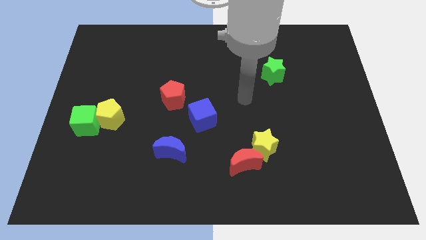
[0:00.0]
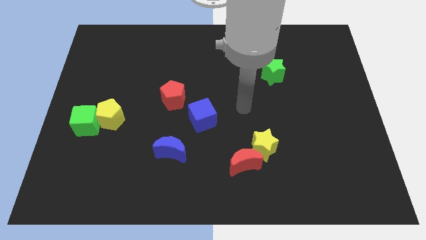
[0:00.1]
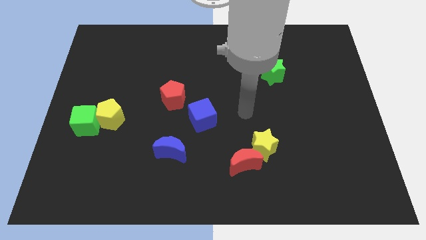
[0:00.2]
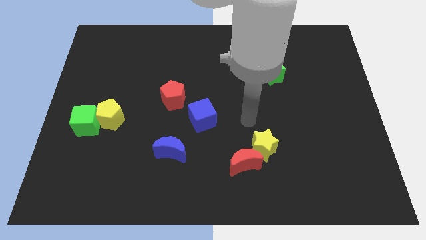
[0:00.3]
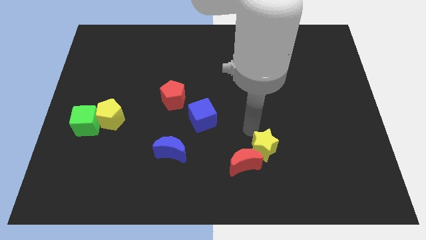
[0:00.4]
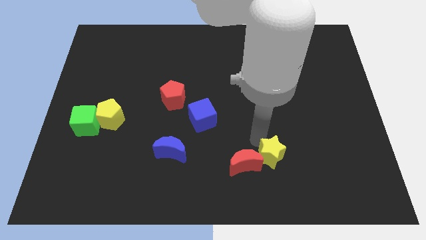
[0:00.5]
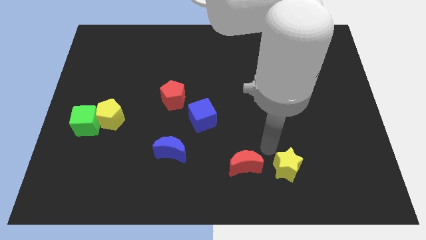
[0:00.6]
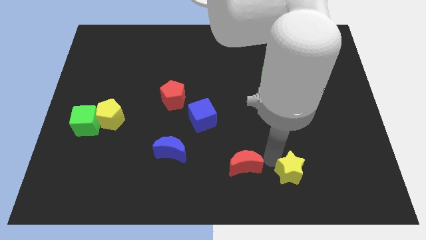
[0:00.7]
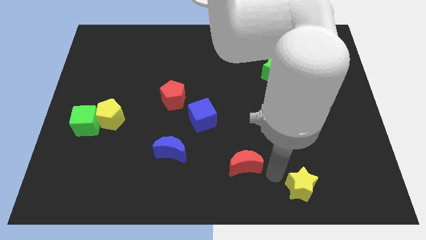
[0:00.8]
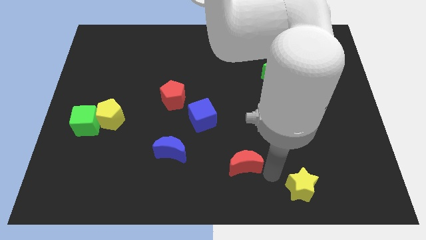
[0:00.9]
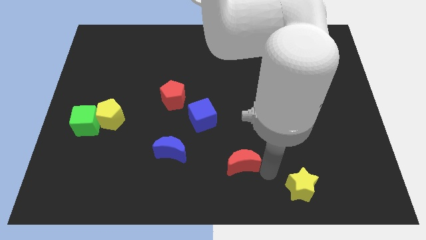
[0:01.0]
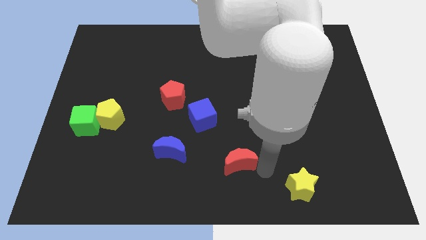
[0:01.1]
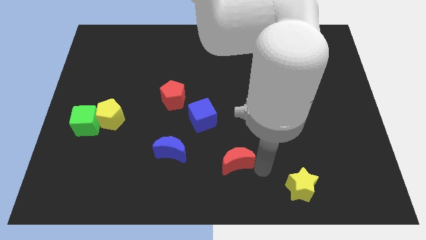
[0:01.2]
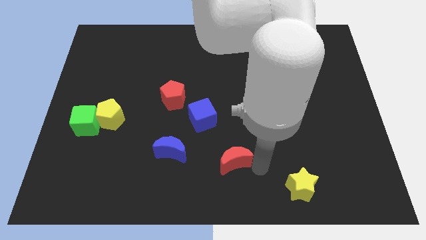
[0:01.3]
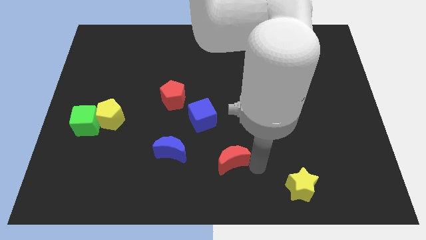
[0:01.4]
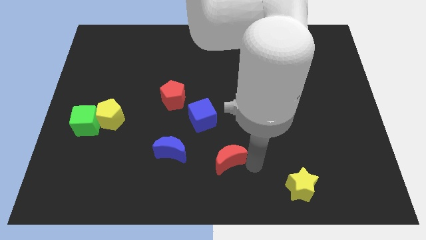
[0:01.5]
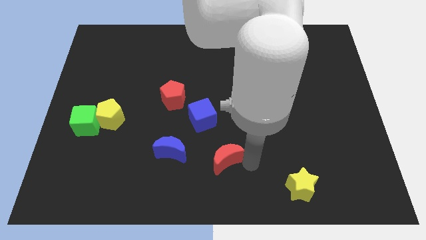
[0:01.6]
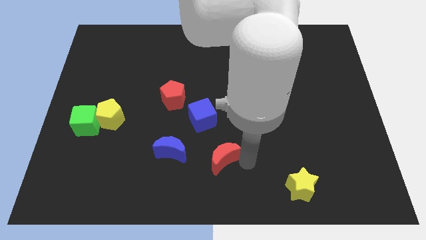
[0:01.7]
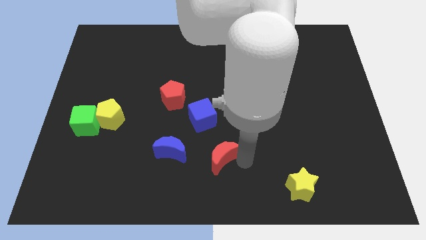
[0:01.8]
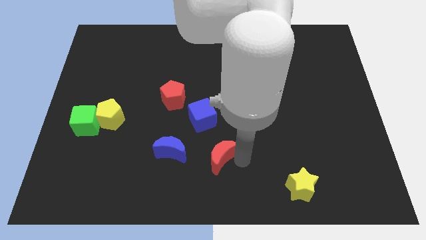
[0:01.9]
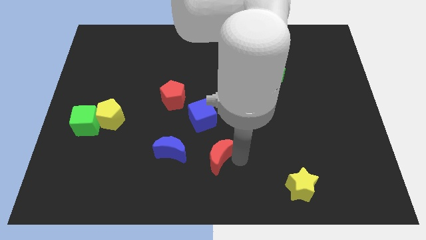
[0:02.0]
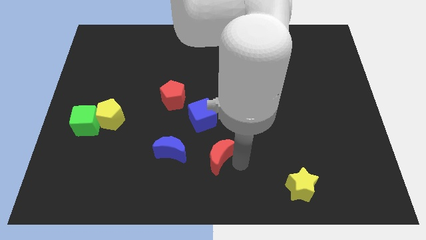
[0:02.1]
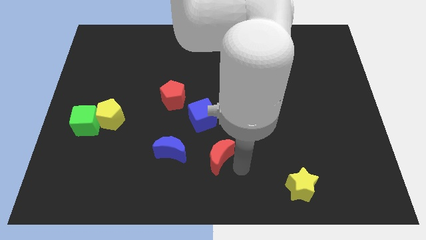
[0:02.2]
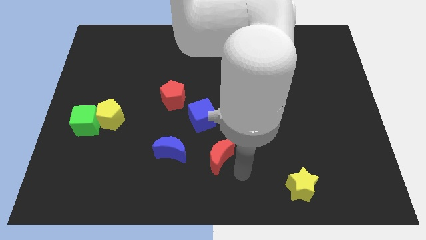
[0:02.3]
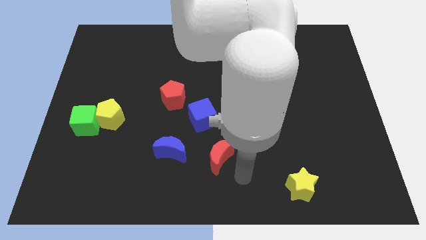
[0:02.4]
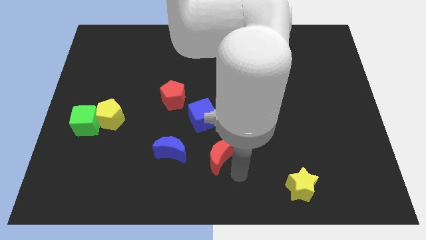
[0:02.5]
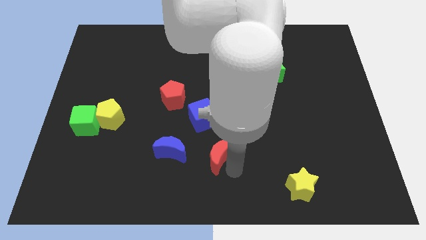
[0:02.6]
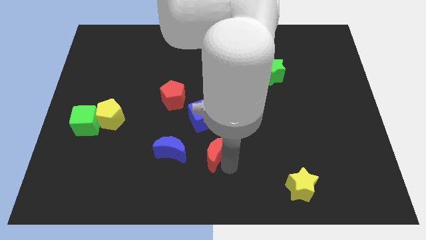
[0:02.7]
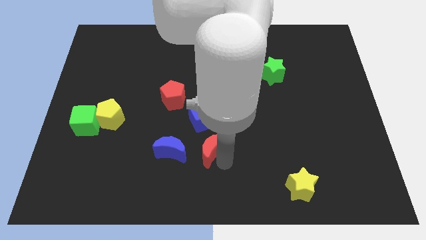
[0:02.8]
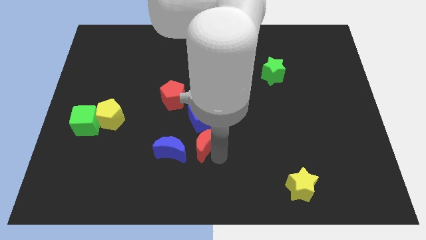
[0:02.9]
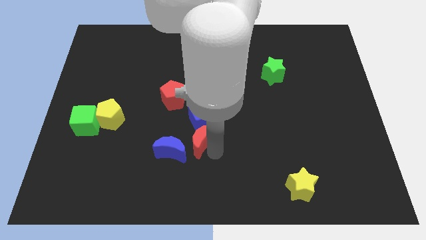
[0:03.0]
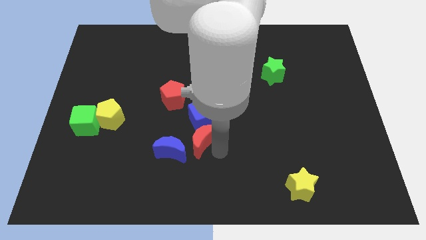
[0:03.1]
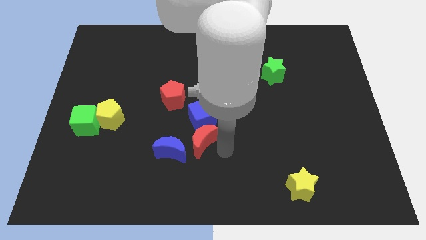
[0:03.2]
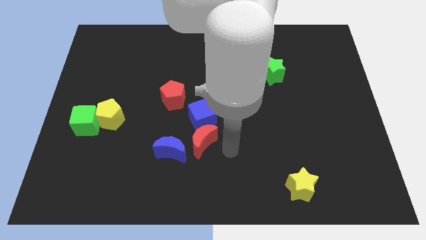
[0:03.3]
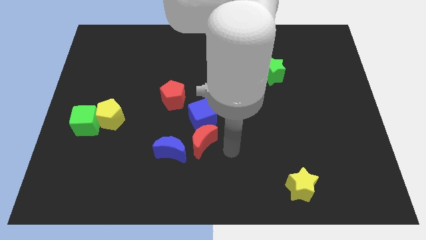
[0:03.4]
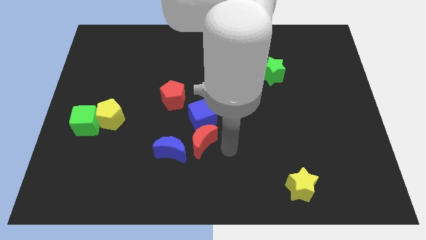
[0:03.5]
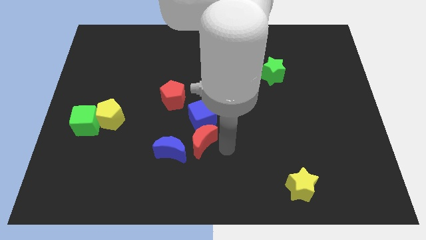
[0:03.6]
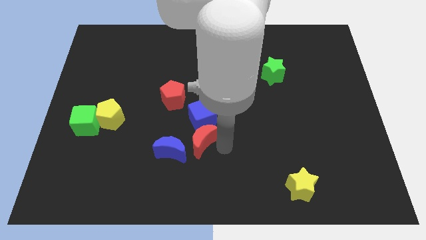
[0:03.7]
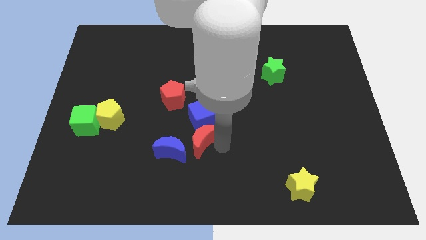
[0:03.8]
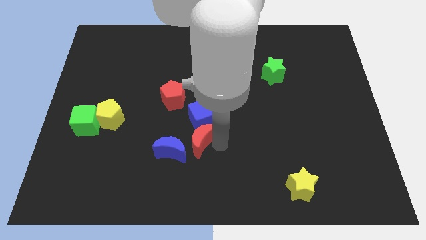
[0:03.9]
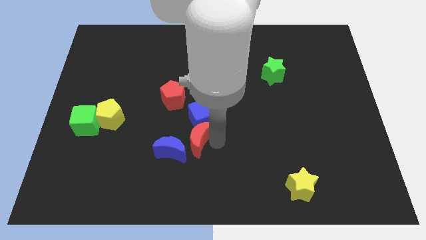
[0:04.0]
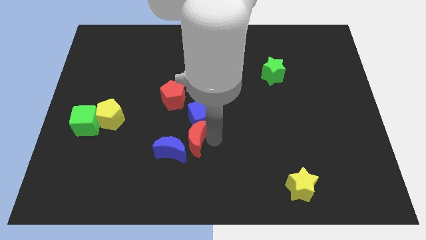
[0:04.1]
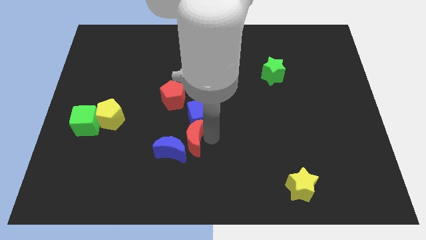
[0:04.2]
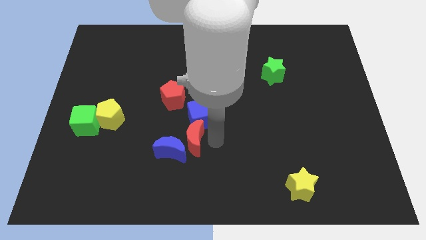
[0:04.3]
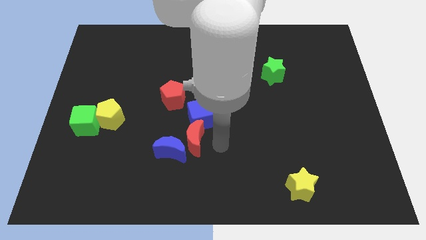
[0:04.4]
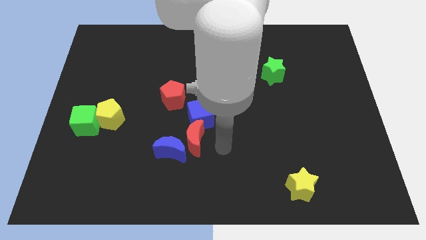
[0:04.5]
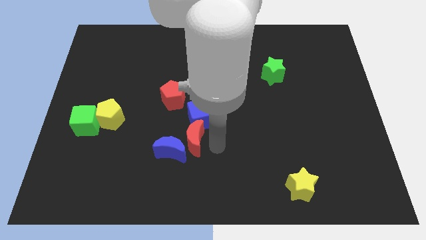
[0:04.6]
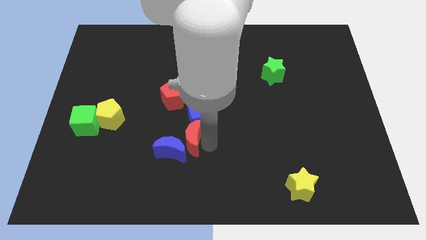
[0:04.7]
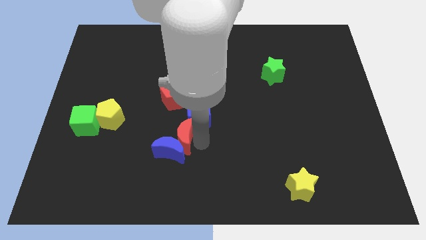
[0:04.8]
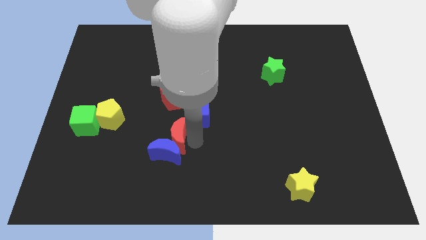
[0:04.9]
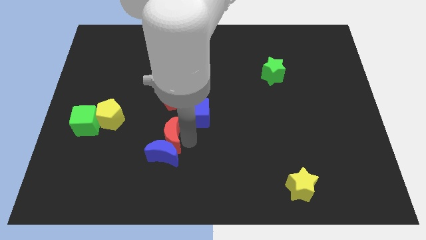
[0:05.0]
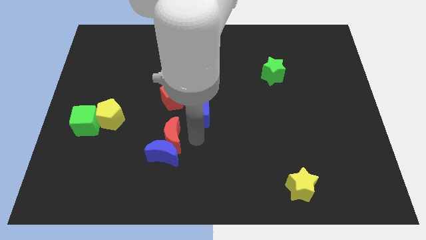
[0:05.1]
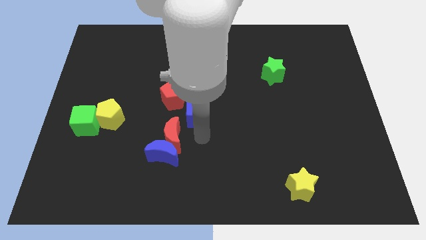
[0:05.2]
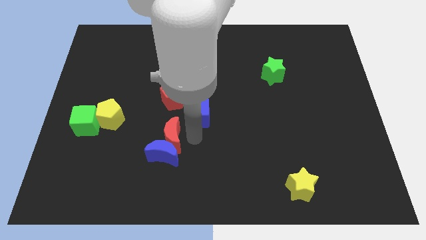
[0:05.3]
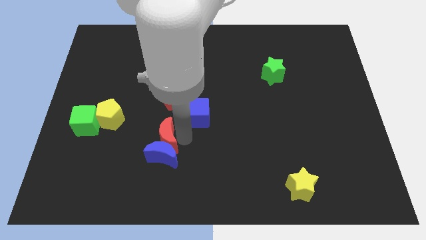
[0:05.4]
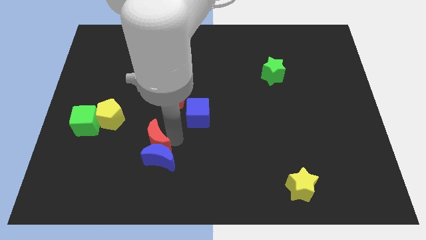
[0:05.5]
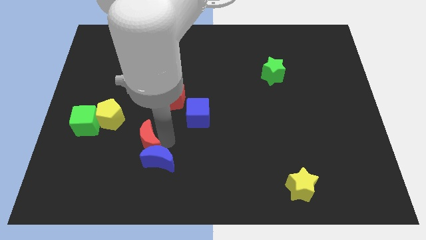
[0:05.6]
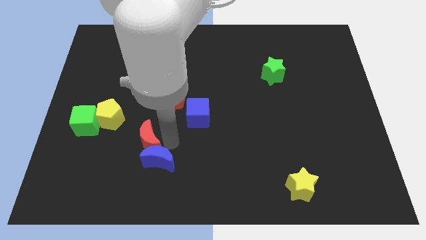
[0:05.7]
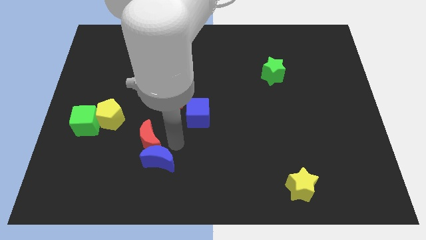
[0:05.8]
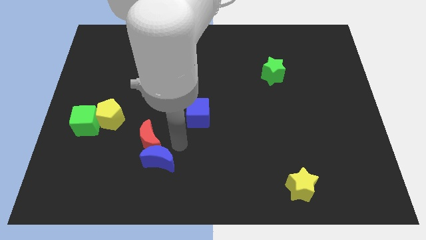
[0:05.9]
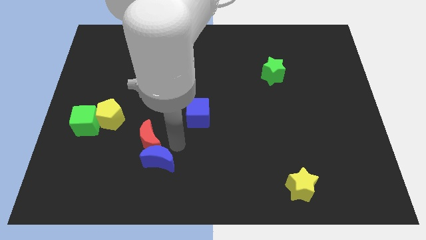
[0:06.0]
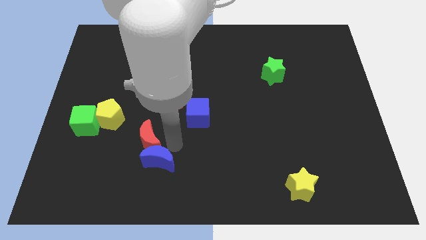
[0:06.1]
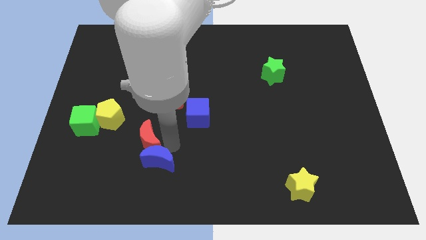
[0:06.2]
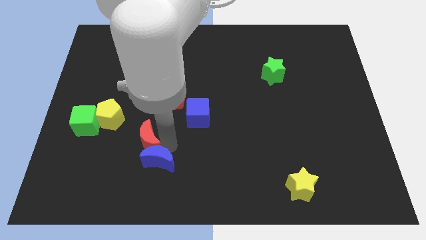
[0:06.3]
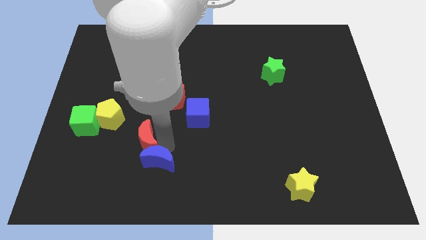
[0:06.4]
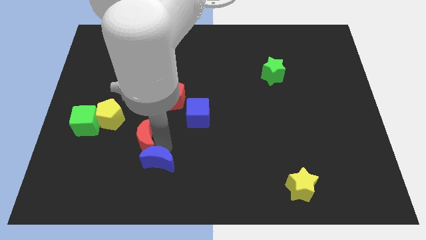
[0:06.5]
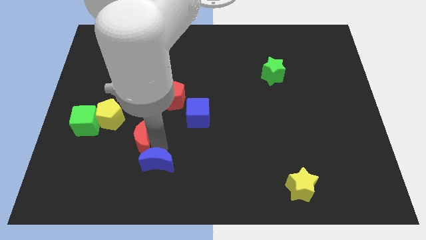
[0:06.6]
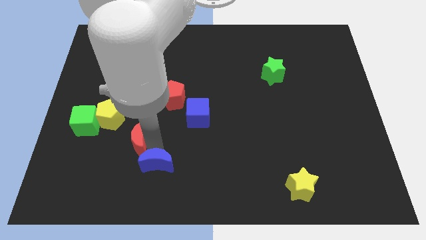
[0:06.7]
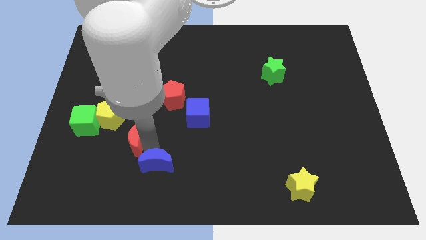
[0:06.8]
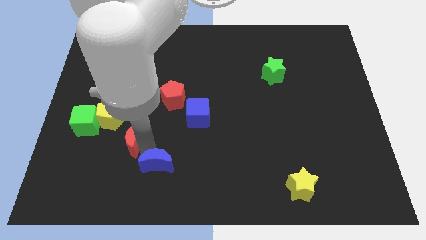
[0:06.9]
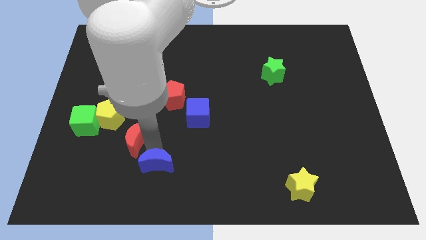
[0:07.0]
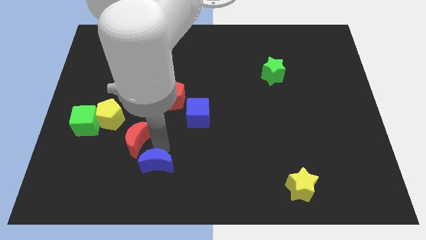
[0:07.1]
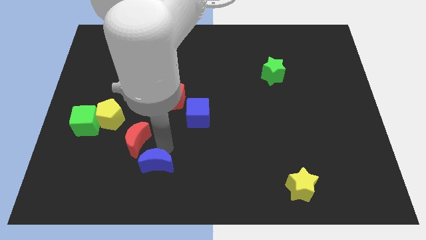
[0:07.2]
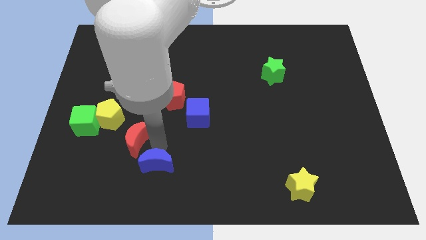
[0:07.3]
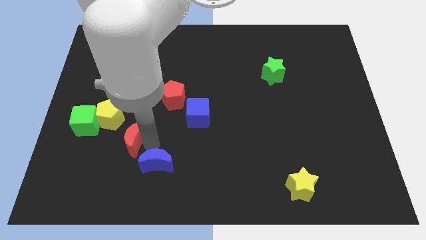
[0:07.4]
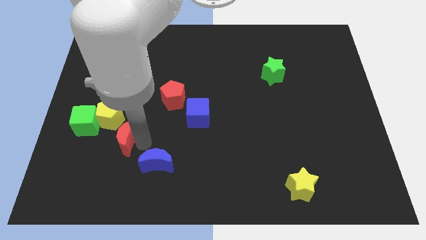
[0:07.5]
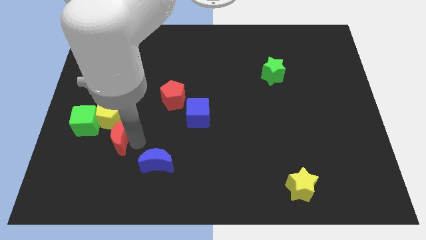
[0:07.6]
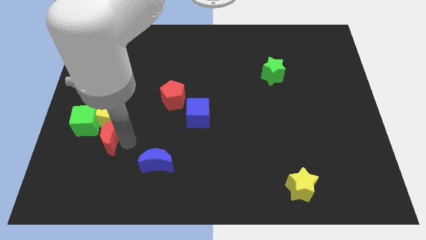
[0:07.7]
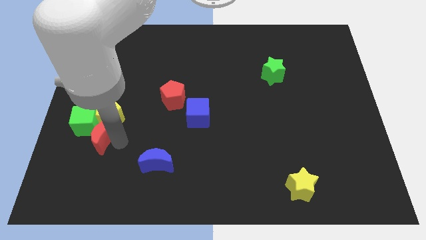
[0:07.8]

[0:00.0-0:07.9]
move the red moon to the green cube
